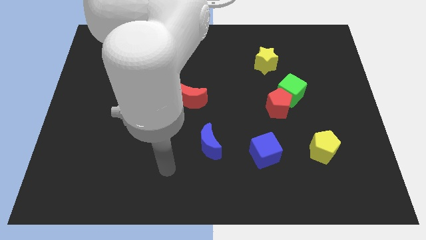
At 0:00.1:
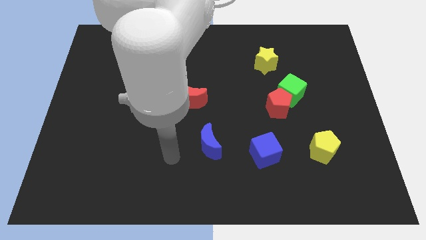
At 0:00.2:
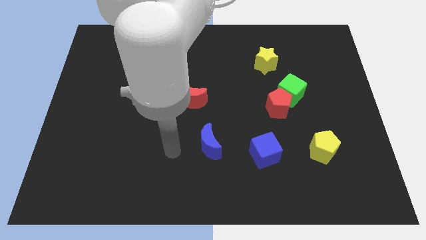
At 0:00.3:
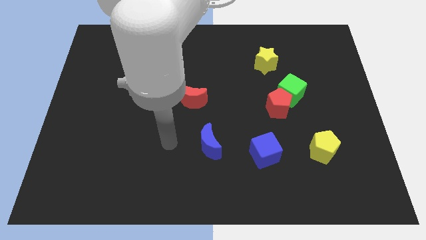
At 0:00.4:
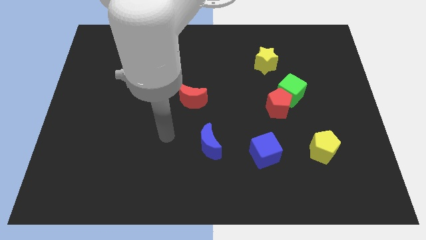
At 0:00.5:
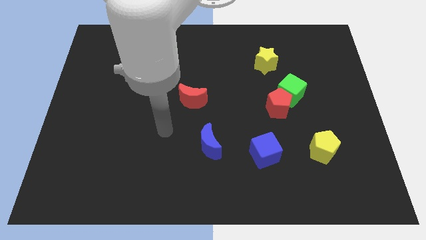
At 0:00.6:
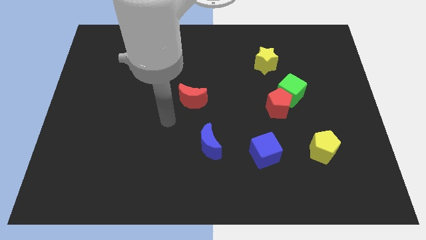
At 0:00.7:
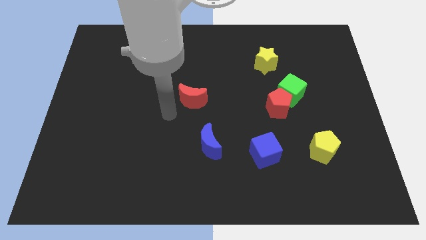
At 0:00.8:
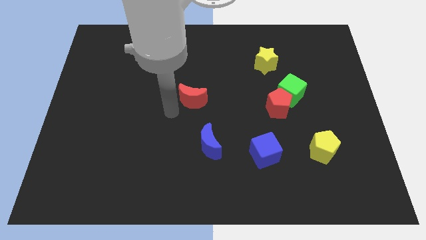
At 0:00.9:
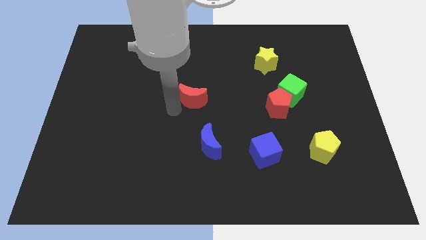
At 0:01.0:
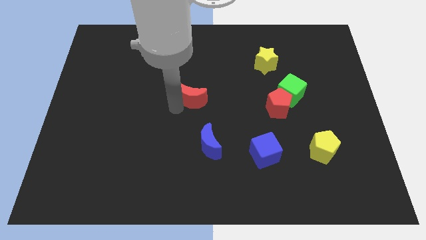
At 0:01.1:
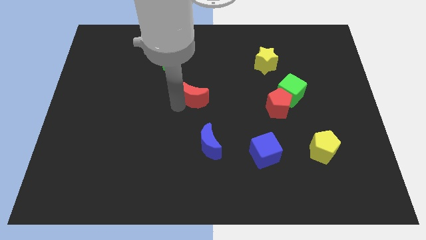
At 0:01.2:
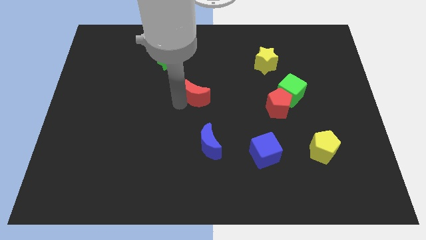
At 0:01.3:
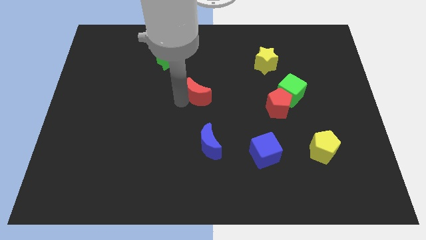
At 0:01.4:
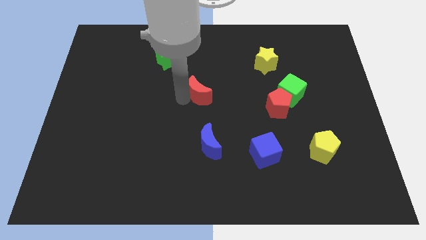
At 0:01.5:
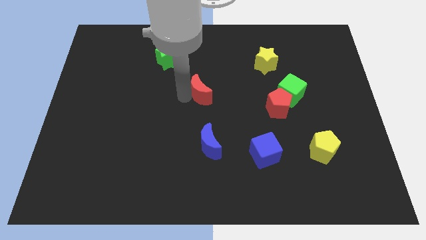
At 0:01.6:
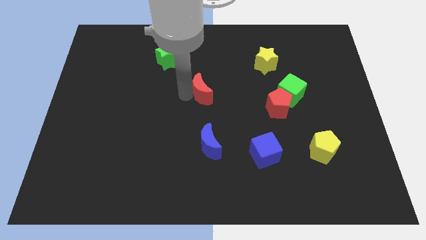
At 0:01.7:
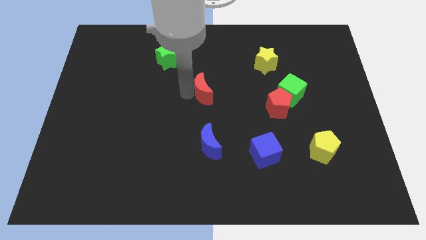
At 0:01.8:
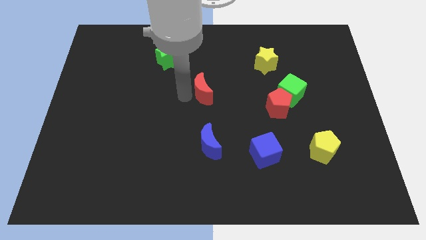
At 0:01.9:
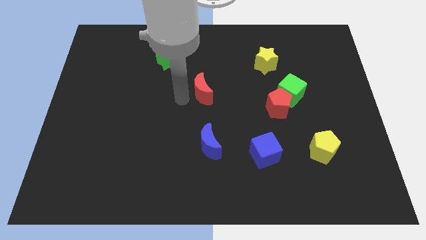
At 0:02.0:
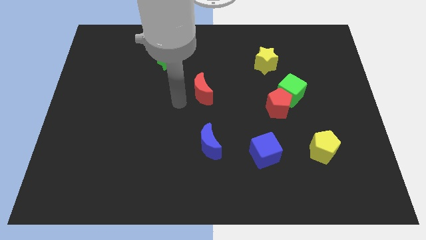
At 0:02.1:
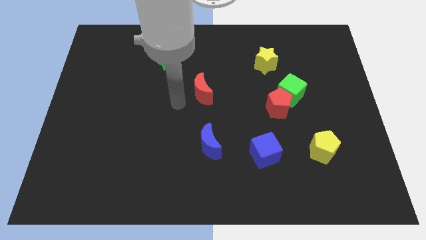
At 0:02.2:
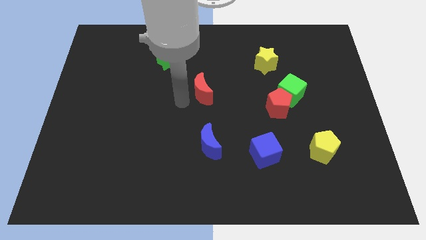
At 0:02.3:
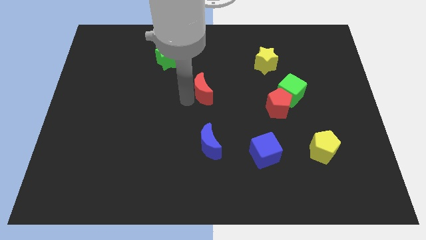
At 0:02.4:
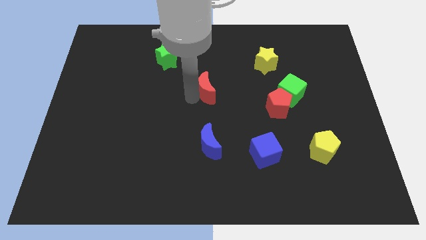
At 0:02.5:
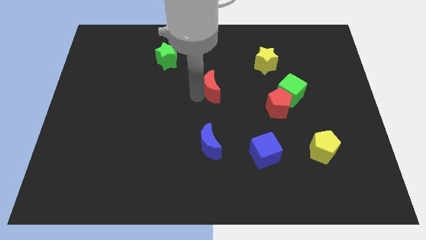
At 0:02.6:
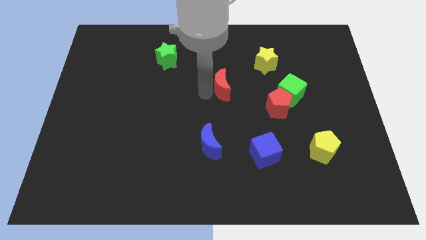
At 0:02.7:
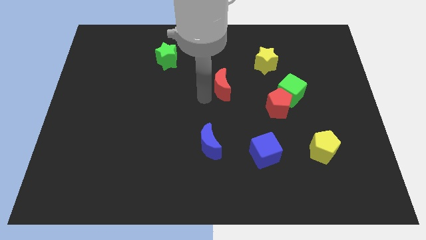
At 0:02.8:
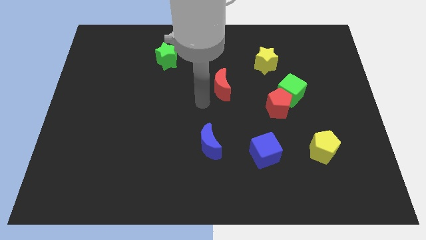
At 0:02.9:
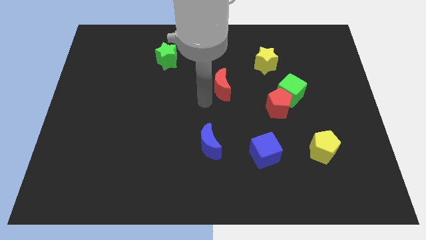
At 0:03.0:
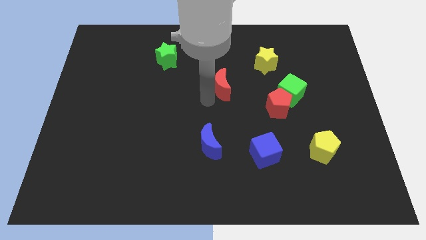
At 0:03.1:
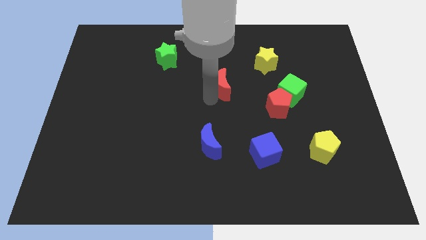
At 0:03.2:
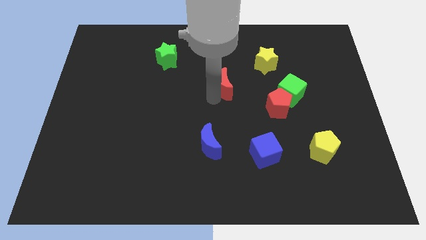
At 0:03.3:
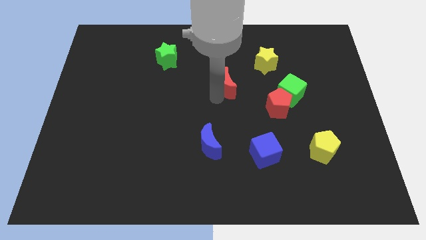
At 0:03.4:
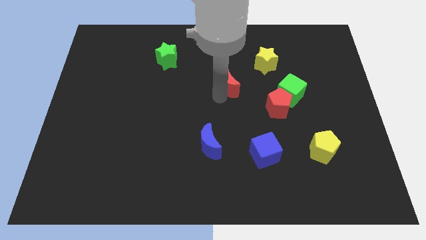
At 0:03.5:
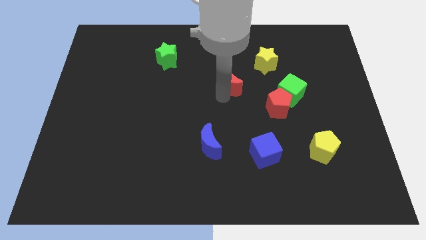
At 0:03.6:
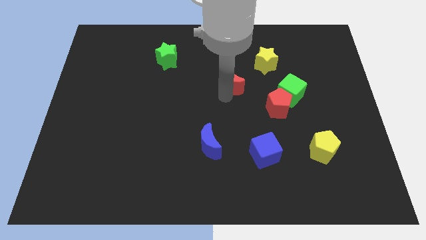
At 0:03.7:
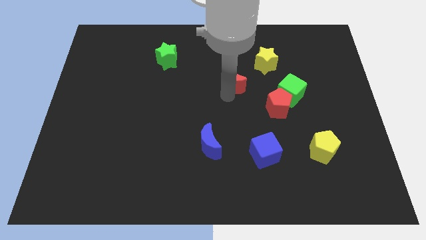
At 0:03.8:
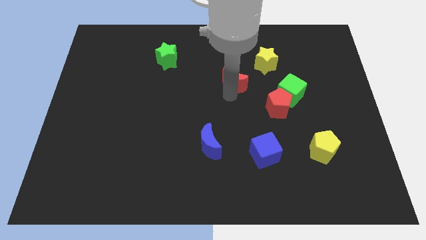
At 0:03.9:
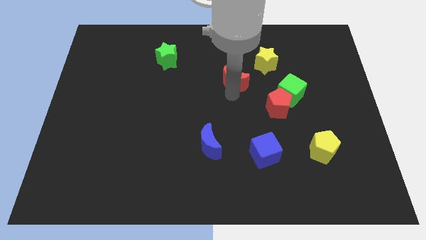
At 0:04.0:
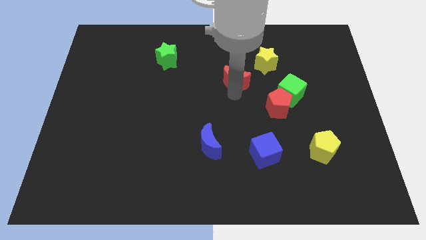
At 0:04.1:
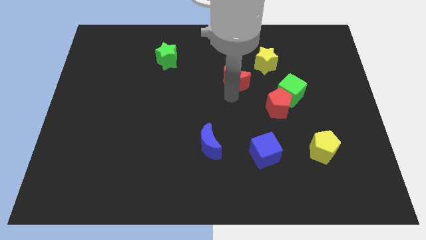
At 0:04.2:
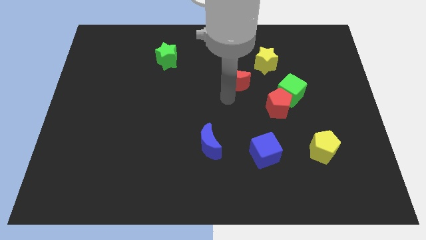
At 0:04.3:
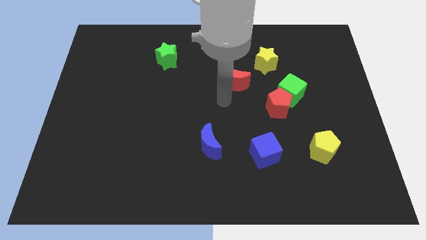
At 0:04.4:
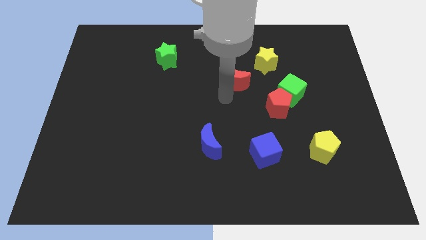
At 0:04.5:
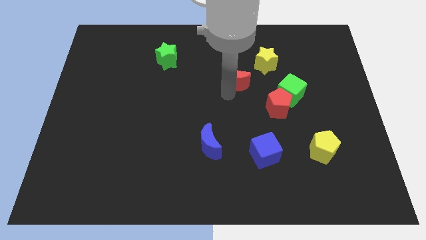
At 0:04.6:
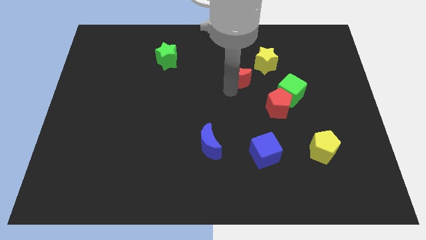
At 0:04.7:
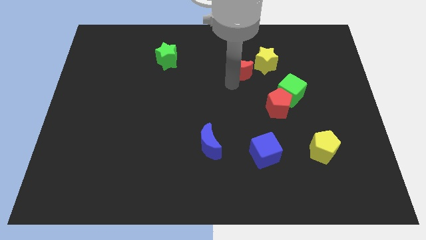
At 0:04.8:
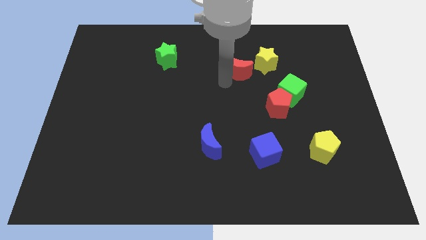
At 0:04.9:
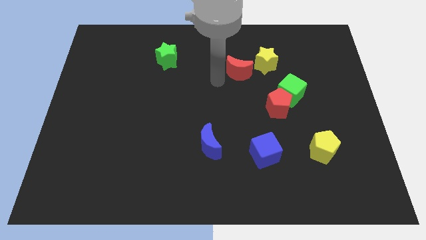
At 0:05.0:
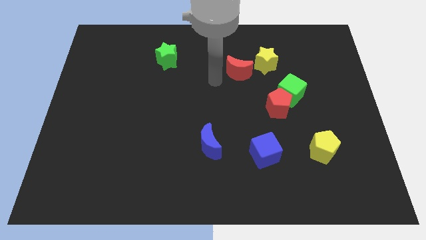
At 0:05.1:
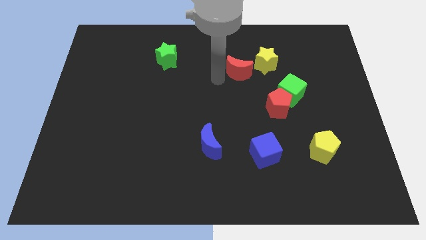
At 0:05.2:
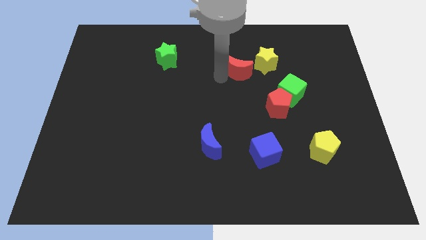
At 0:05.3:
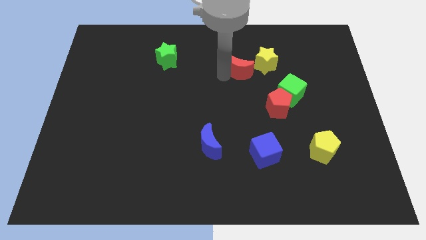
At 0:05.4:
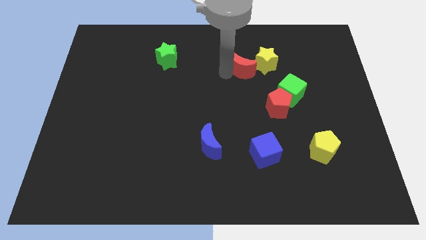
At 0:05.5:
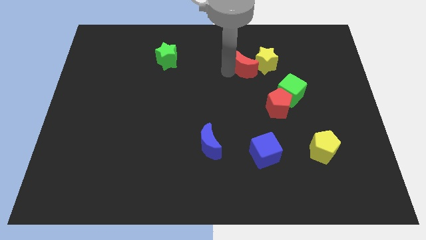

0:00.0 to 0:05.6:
push the red moon close to the yellow star

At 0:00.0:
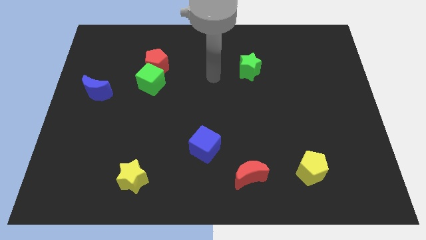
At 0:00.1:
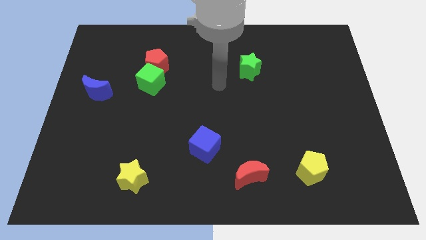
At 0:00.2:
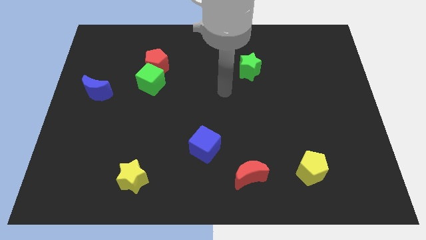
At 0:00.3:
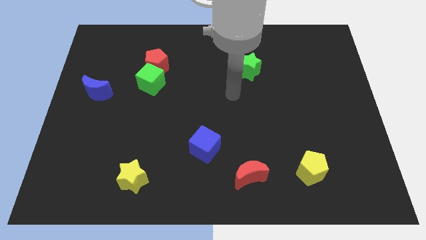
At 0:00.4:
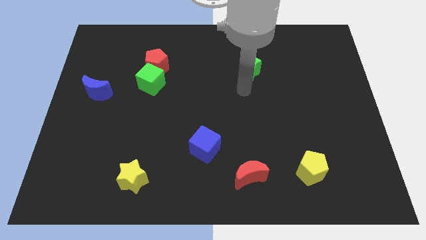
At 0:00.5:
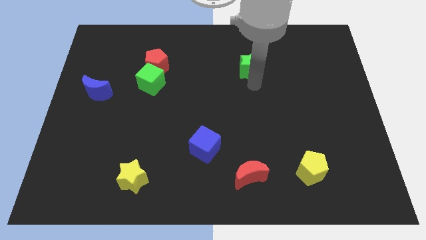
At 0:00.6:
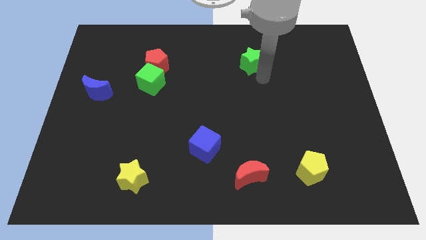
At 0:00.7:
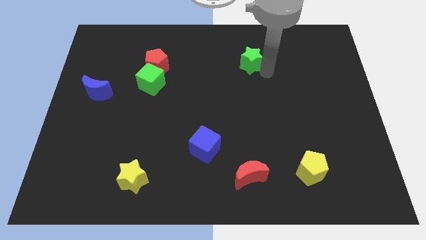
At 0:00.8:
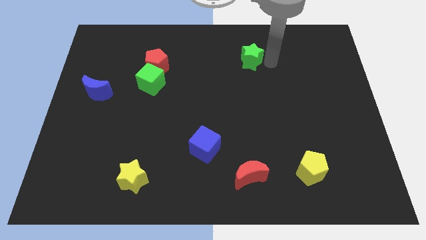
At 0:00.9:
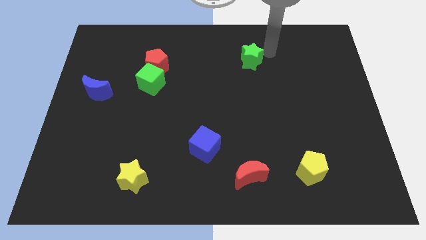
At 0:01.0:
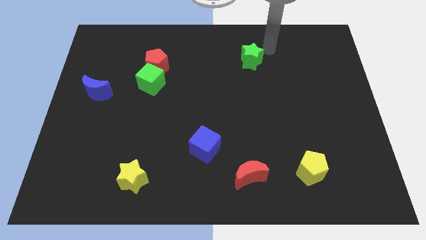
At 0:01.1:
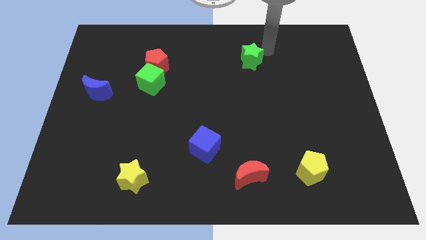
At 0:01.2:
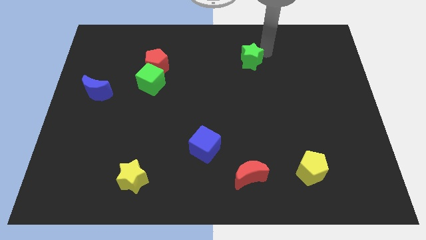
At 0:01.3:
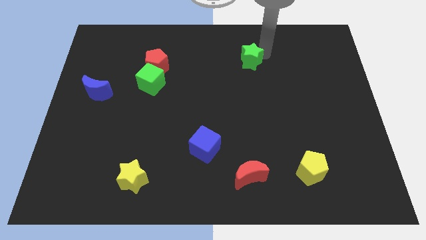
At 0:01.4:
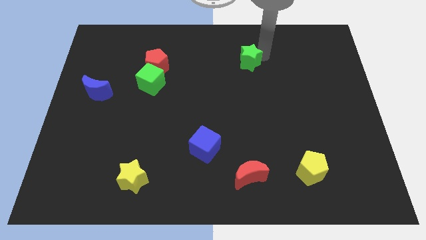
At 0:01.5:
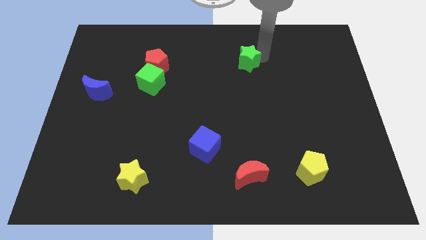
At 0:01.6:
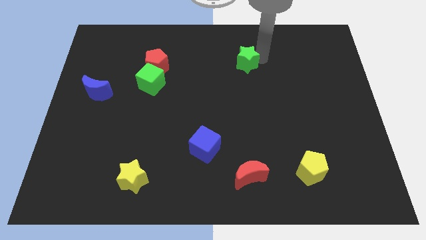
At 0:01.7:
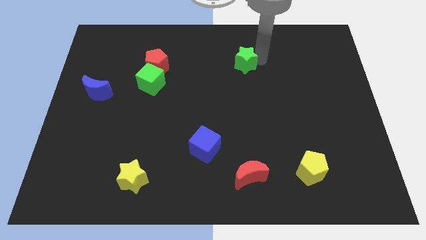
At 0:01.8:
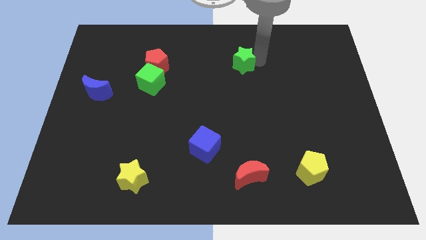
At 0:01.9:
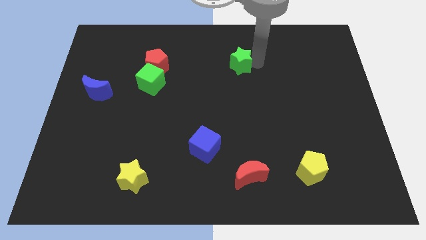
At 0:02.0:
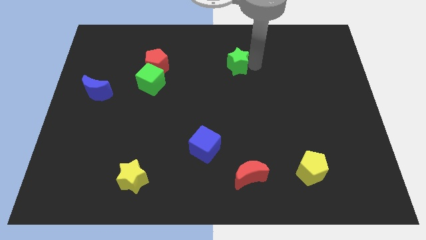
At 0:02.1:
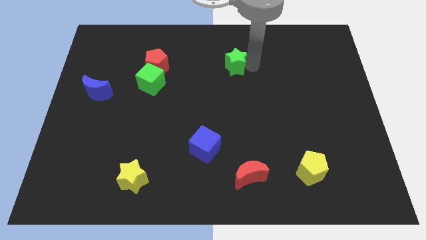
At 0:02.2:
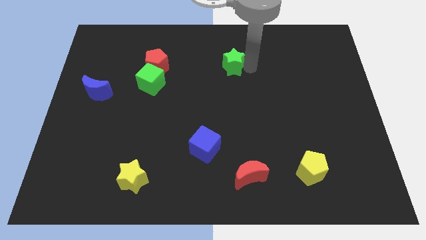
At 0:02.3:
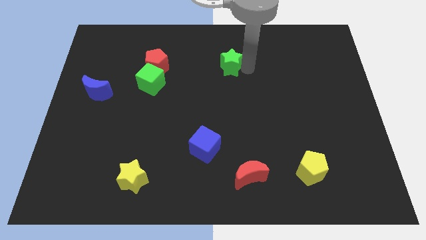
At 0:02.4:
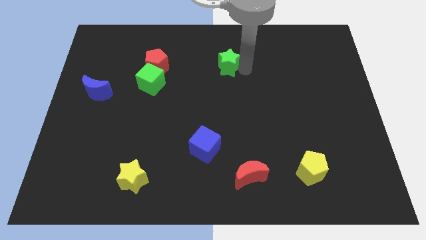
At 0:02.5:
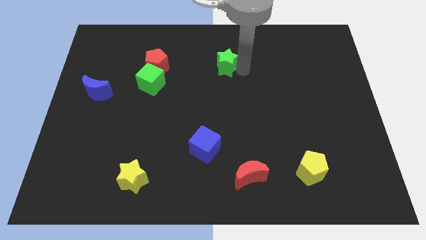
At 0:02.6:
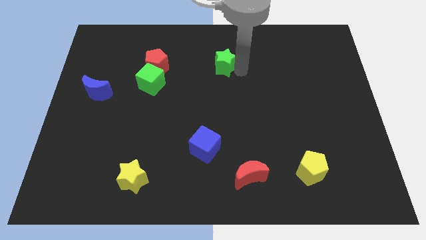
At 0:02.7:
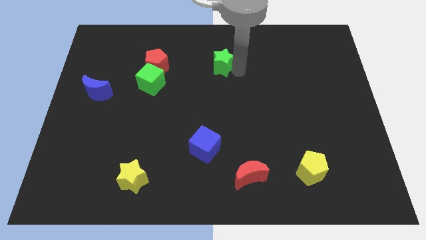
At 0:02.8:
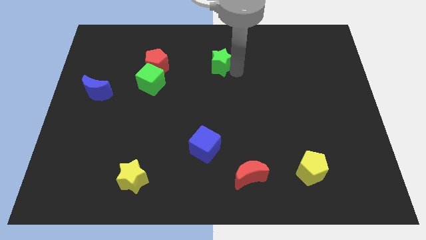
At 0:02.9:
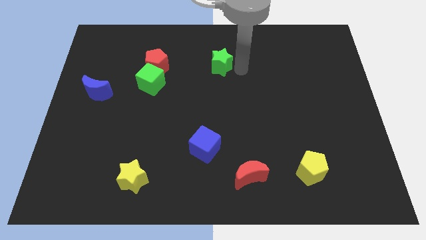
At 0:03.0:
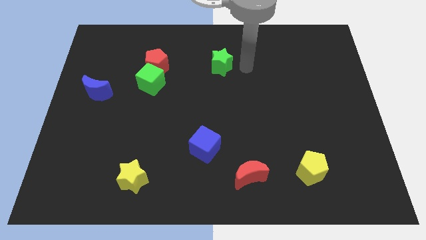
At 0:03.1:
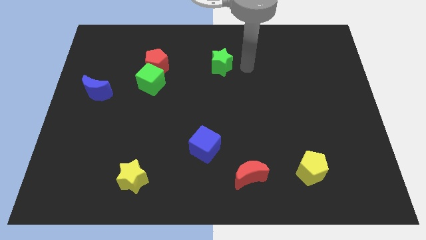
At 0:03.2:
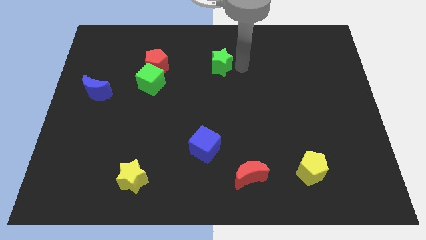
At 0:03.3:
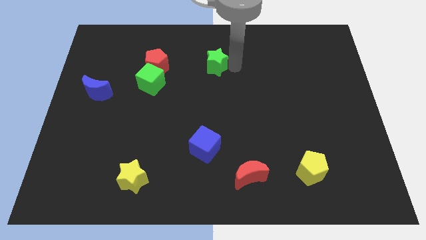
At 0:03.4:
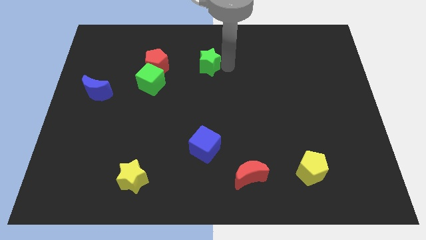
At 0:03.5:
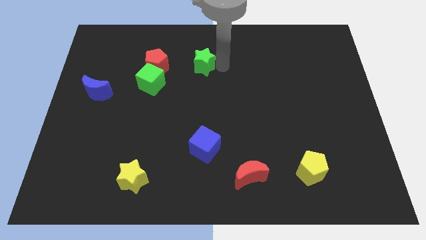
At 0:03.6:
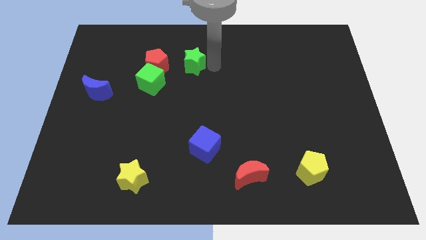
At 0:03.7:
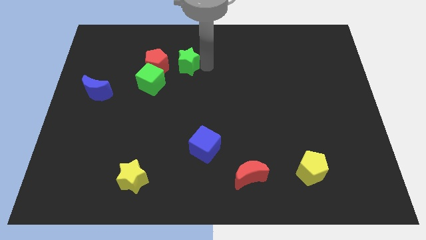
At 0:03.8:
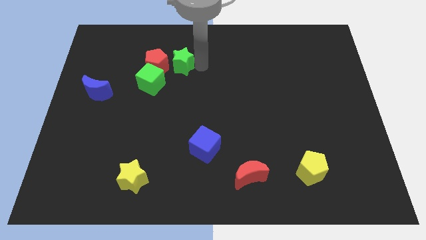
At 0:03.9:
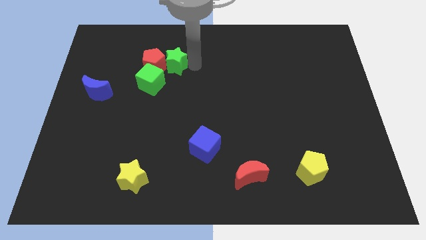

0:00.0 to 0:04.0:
slide the green star close to the red pentagon
